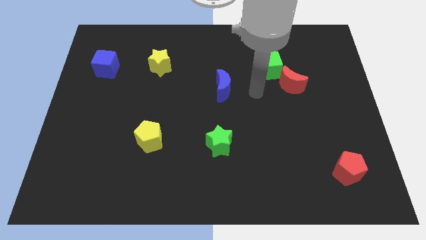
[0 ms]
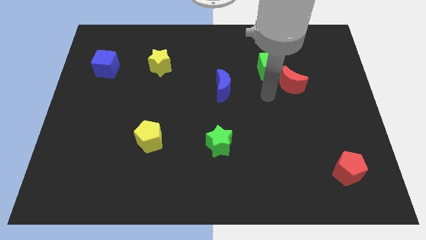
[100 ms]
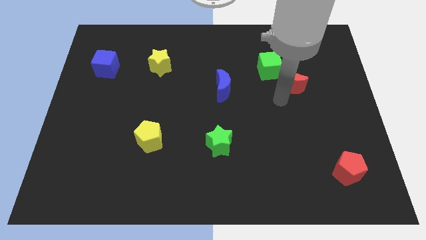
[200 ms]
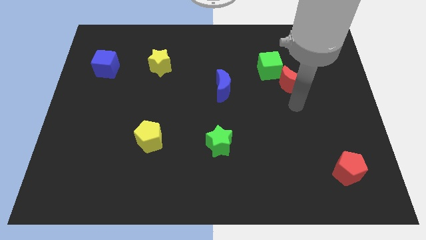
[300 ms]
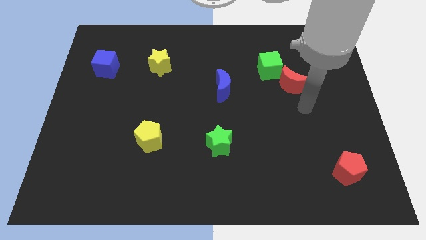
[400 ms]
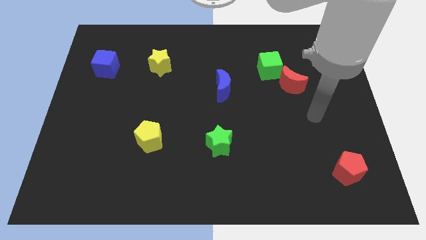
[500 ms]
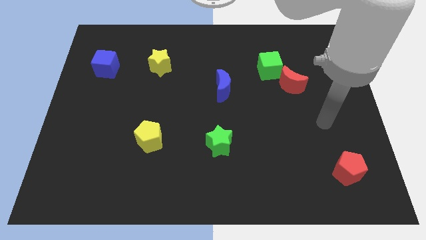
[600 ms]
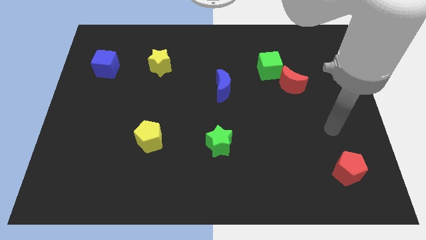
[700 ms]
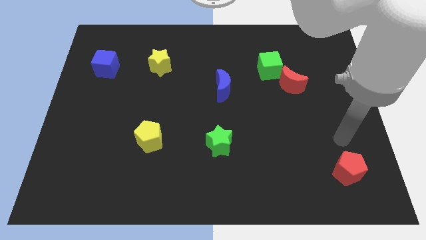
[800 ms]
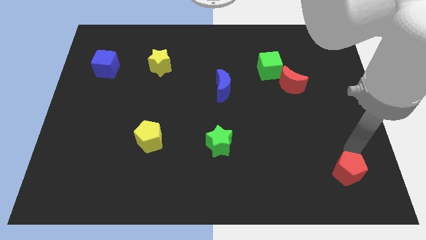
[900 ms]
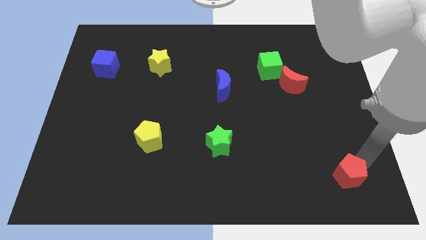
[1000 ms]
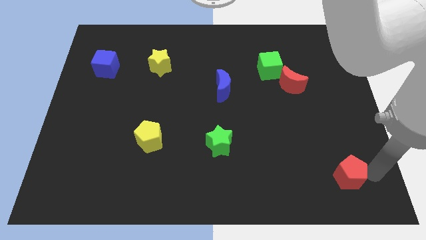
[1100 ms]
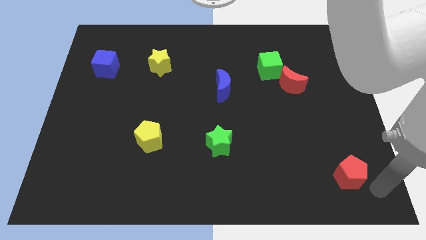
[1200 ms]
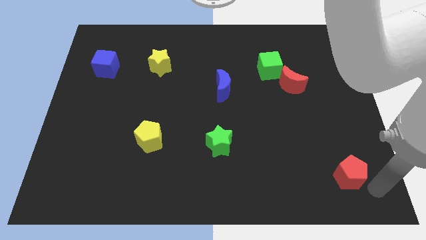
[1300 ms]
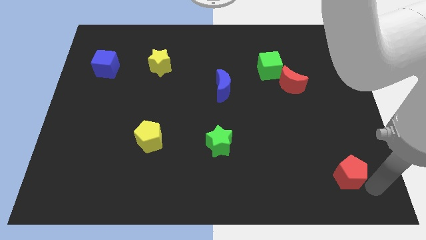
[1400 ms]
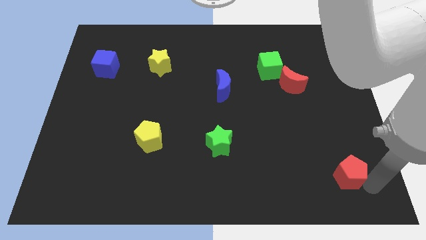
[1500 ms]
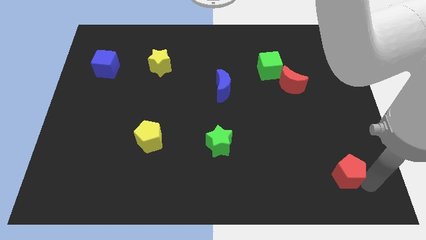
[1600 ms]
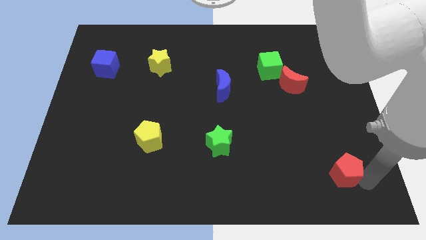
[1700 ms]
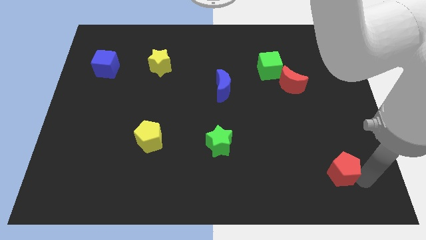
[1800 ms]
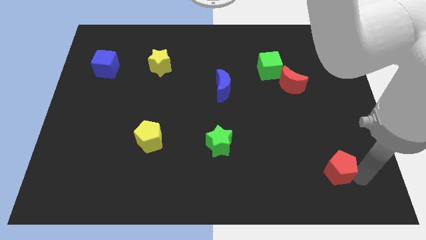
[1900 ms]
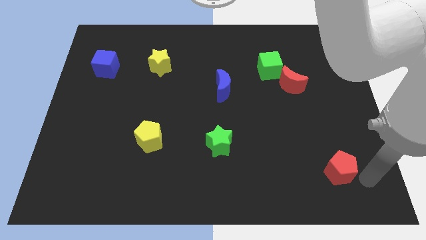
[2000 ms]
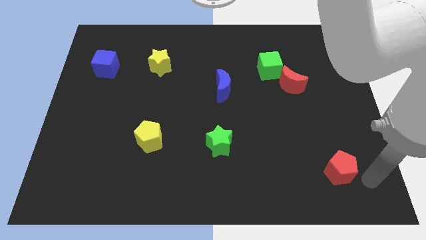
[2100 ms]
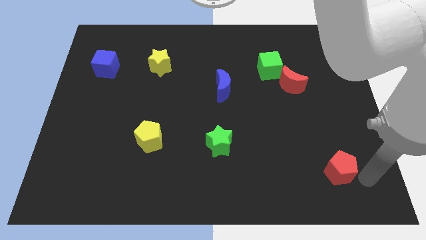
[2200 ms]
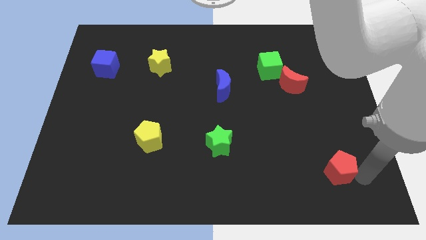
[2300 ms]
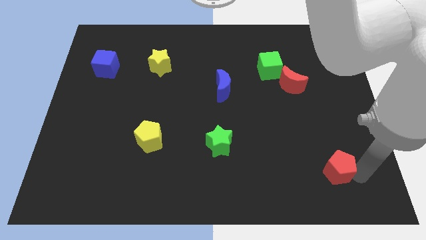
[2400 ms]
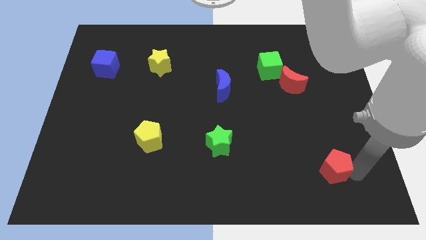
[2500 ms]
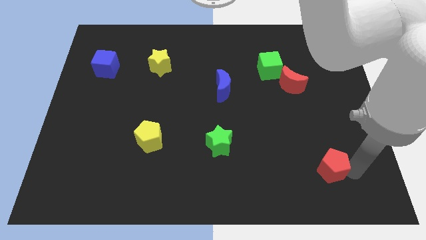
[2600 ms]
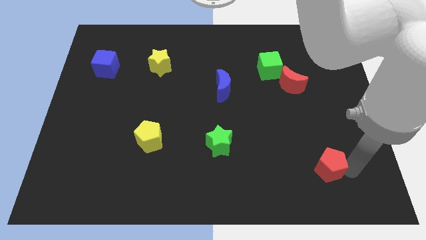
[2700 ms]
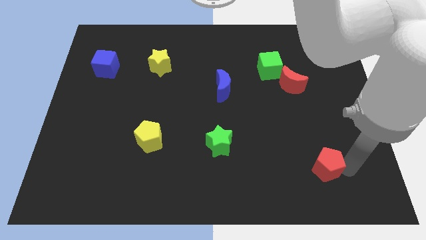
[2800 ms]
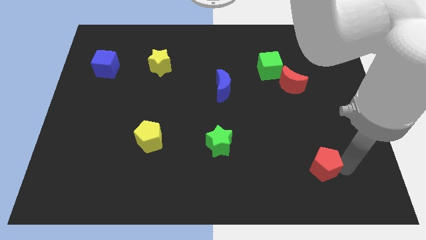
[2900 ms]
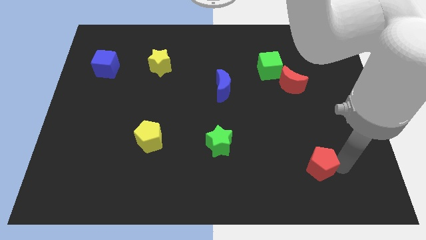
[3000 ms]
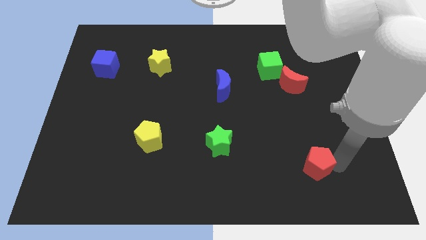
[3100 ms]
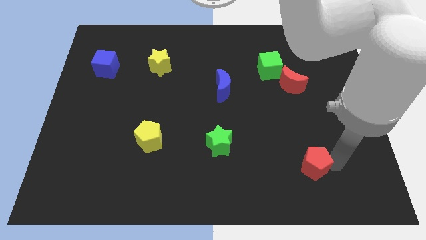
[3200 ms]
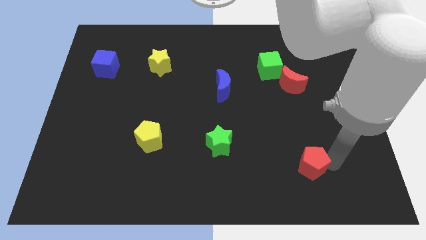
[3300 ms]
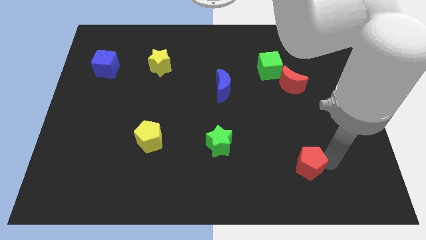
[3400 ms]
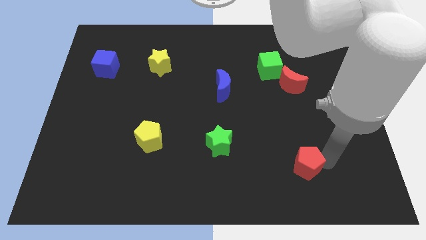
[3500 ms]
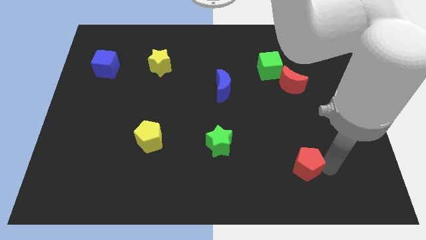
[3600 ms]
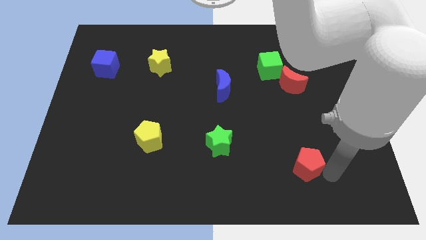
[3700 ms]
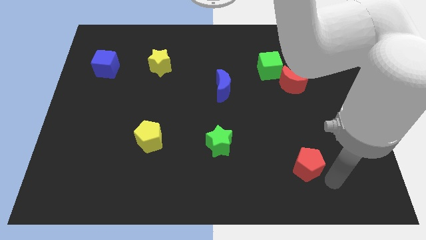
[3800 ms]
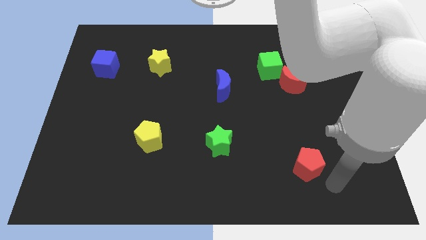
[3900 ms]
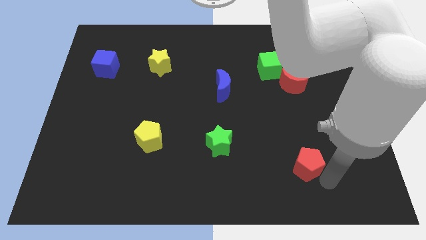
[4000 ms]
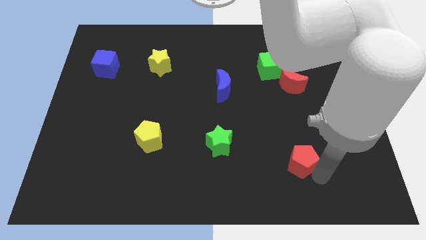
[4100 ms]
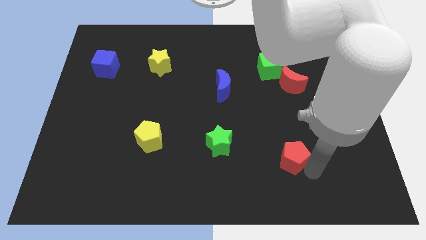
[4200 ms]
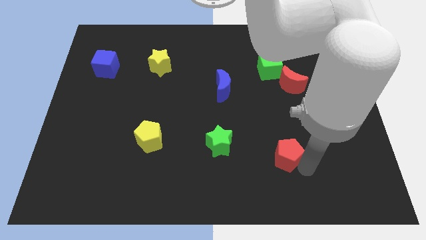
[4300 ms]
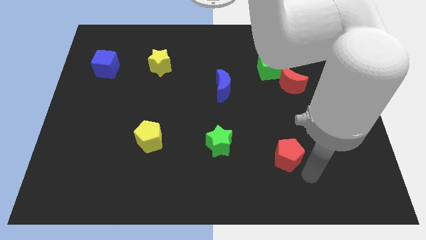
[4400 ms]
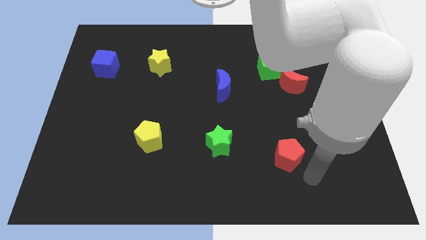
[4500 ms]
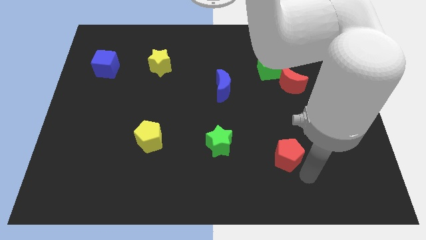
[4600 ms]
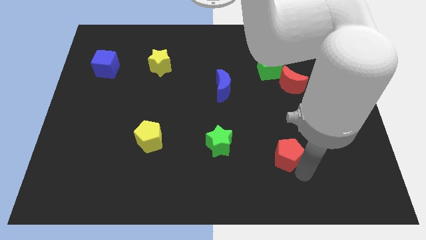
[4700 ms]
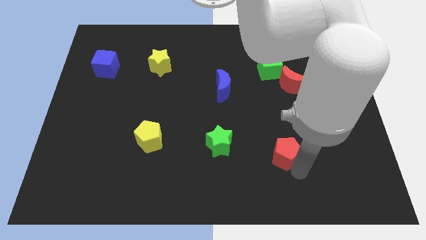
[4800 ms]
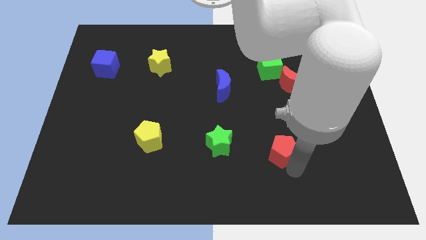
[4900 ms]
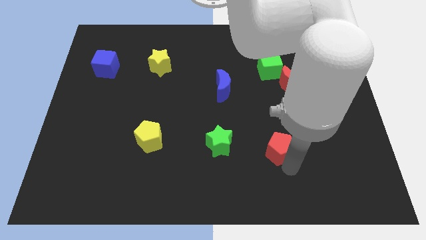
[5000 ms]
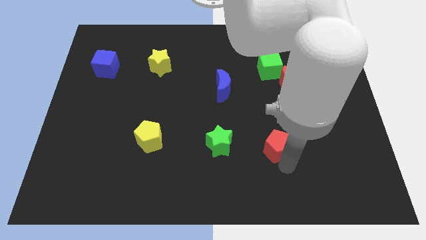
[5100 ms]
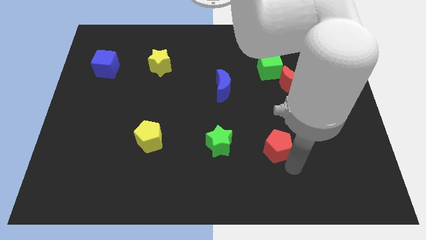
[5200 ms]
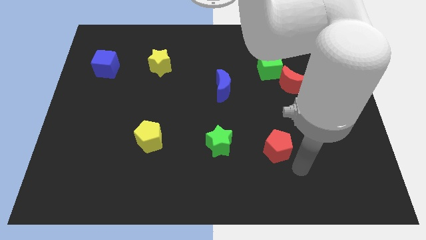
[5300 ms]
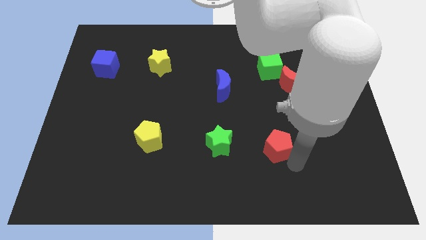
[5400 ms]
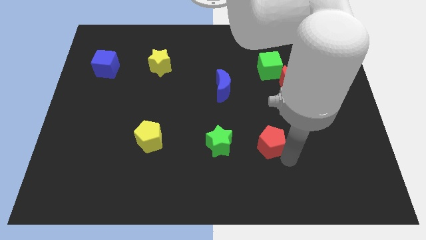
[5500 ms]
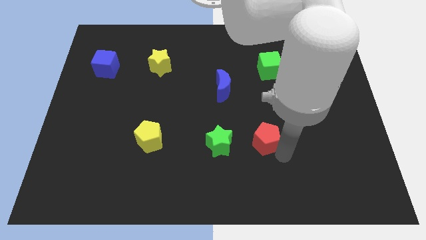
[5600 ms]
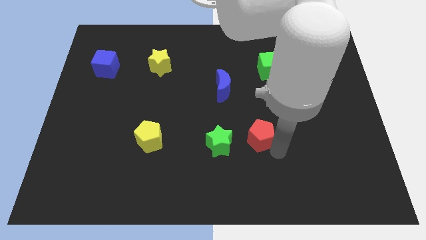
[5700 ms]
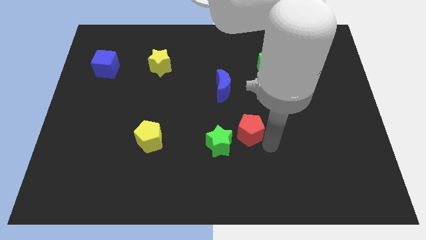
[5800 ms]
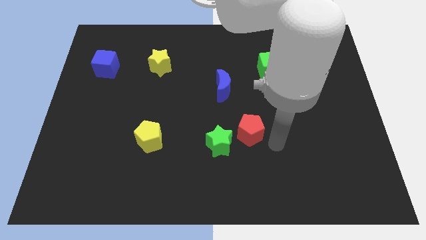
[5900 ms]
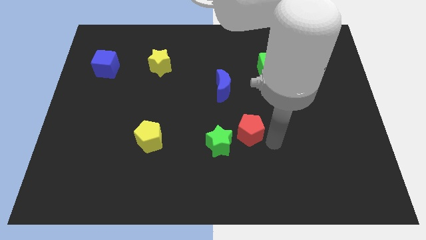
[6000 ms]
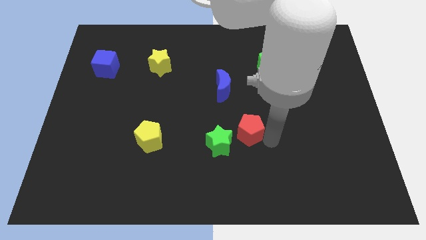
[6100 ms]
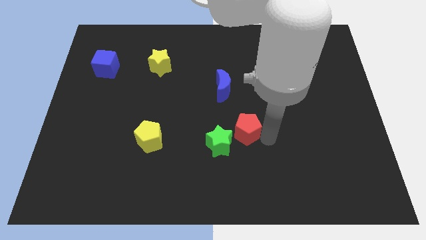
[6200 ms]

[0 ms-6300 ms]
slide the red pentagon below the blue moon
